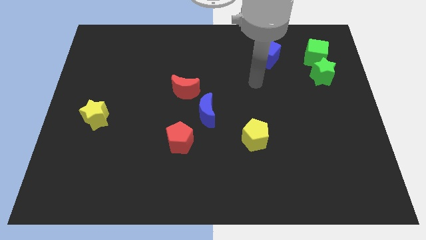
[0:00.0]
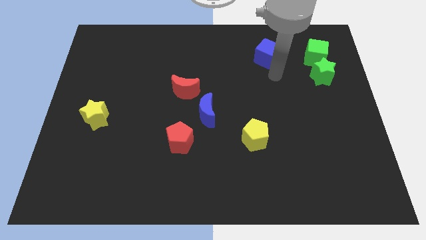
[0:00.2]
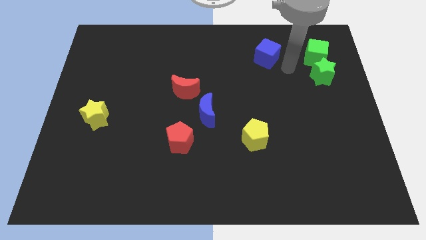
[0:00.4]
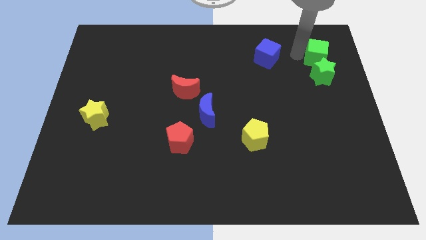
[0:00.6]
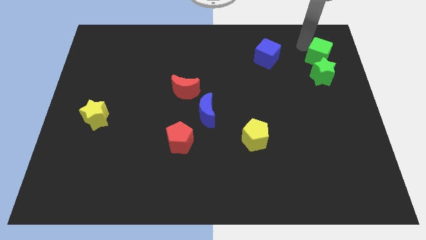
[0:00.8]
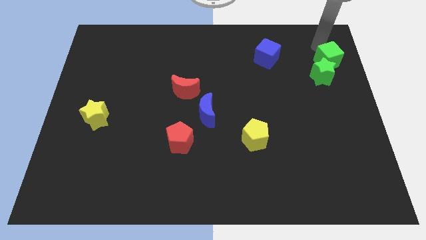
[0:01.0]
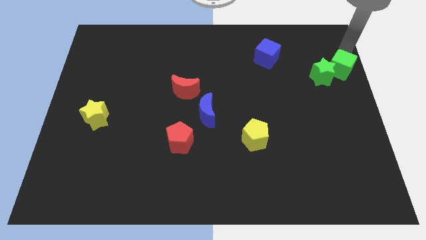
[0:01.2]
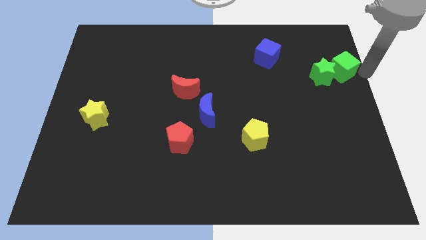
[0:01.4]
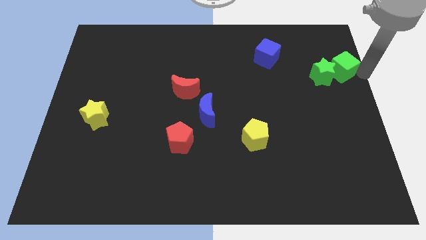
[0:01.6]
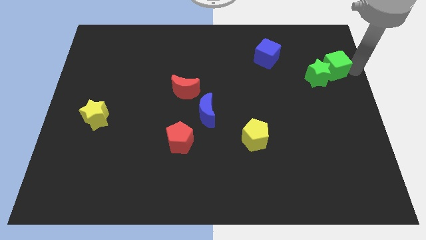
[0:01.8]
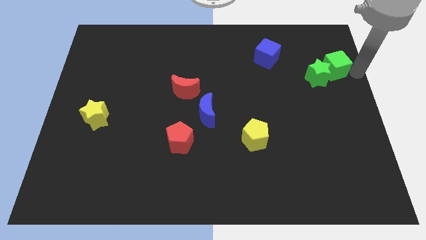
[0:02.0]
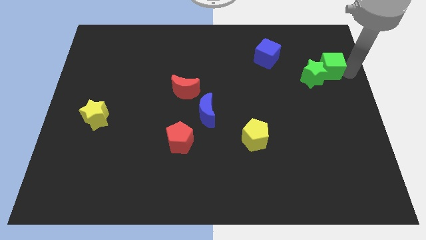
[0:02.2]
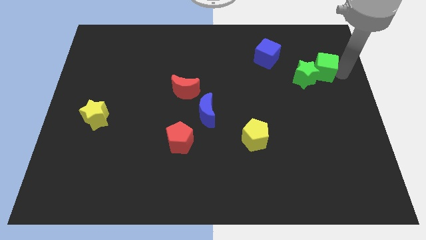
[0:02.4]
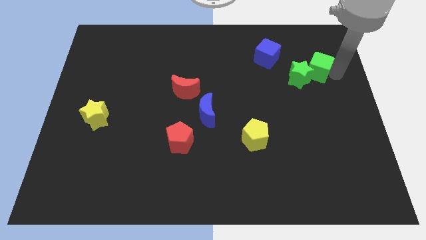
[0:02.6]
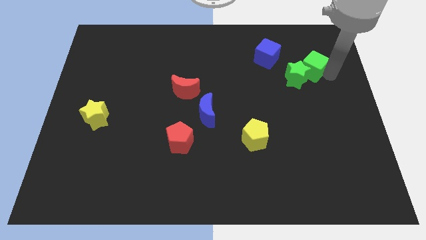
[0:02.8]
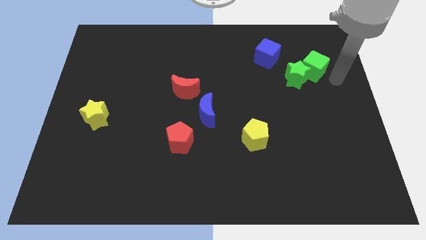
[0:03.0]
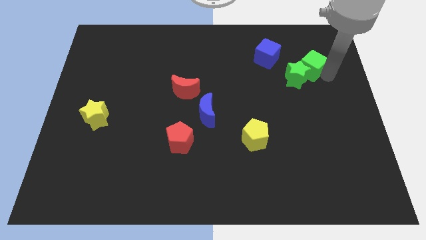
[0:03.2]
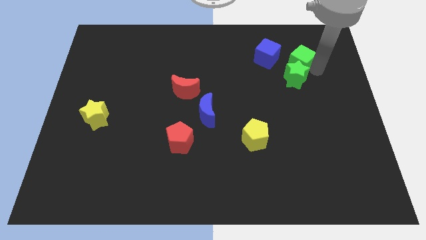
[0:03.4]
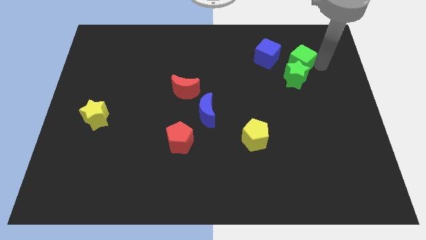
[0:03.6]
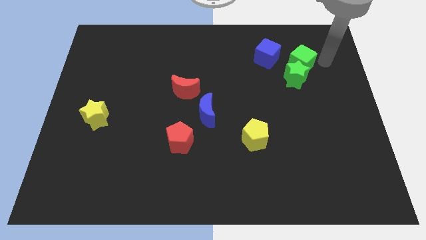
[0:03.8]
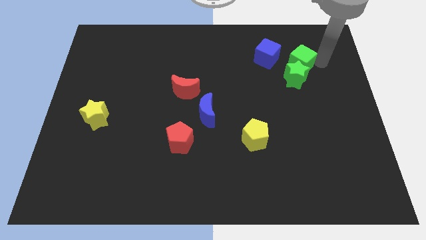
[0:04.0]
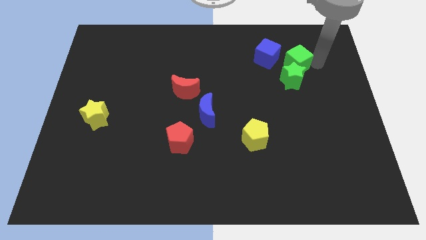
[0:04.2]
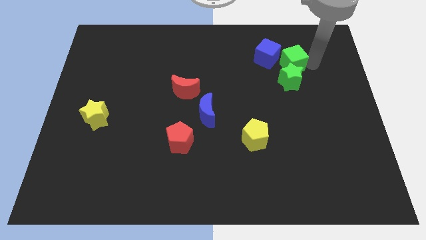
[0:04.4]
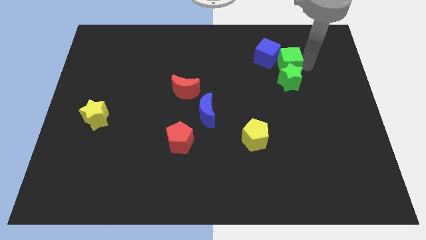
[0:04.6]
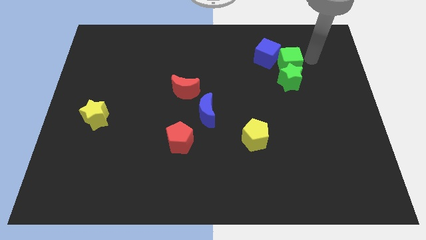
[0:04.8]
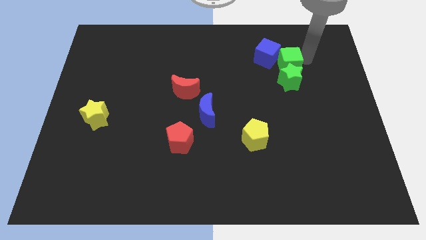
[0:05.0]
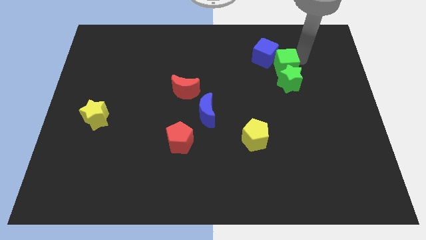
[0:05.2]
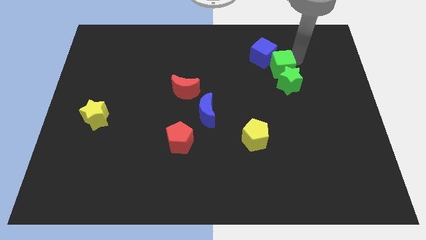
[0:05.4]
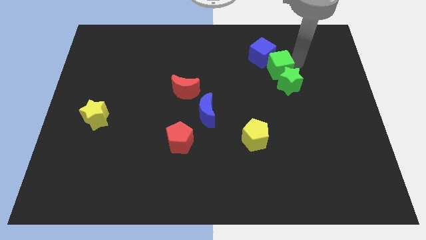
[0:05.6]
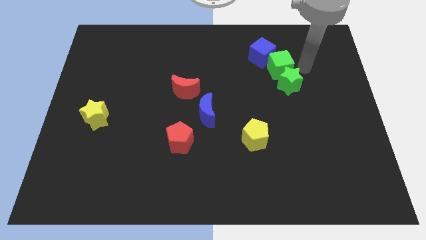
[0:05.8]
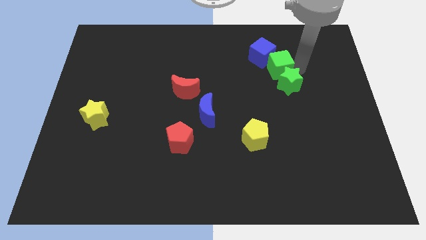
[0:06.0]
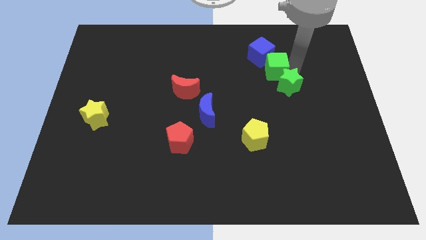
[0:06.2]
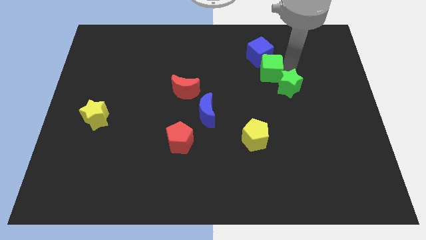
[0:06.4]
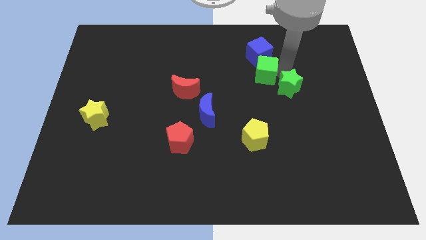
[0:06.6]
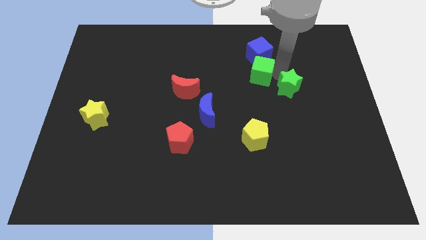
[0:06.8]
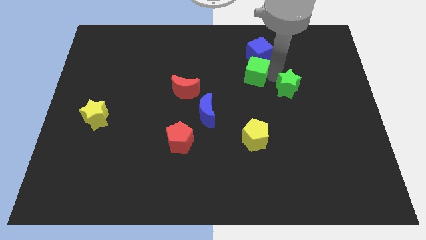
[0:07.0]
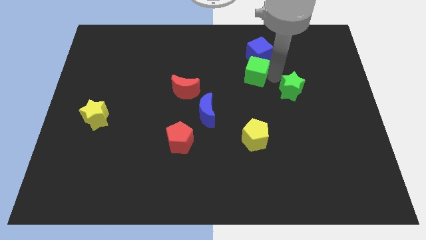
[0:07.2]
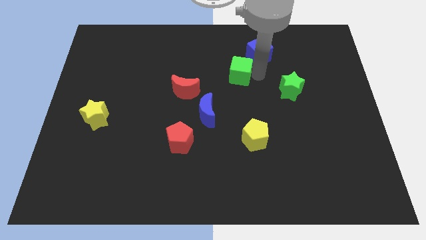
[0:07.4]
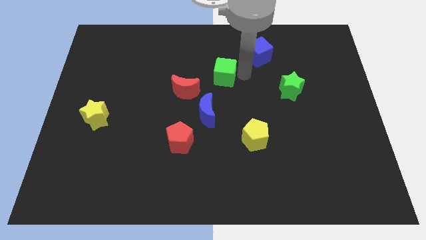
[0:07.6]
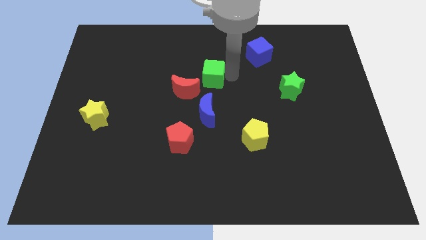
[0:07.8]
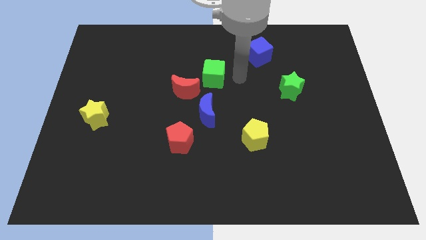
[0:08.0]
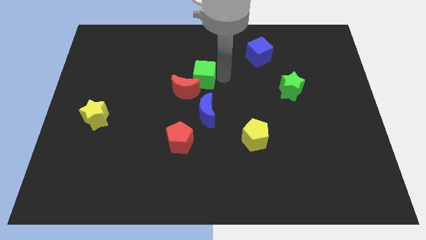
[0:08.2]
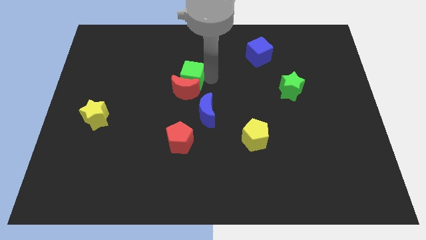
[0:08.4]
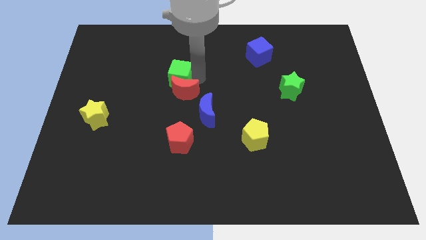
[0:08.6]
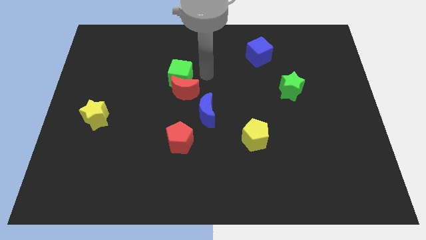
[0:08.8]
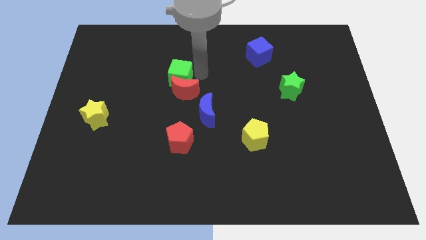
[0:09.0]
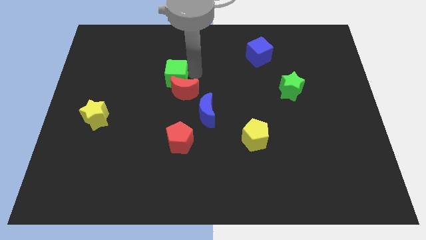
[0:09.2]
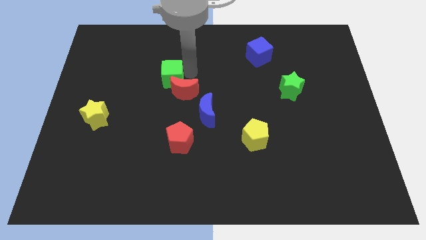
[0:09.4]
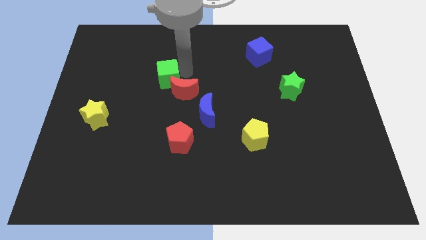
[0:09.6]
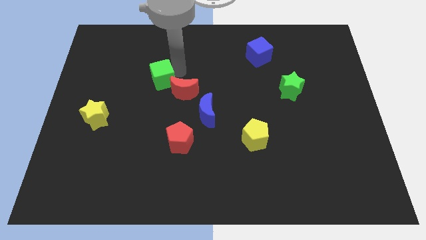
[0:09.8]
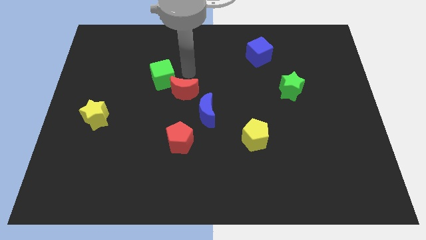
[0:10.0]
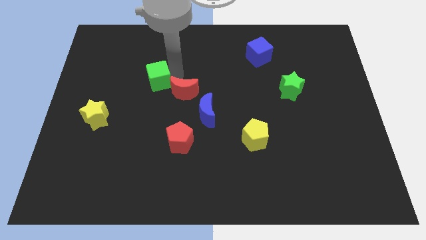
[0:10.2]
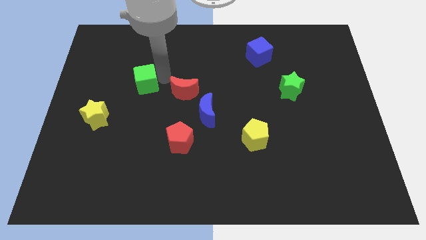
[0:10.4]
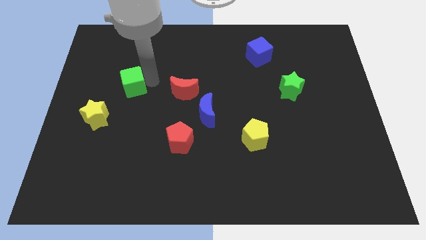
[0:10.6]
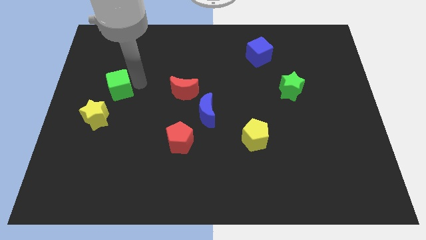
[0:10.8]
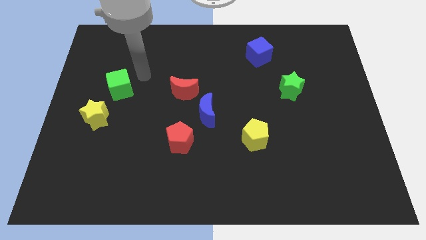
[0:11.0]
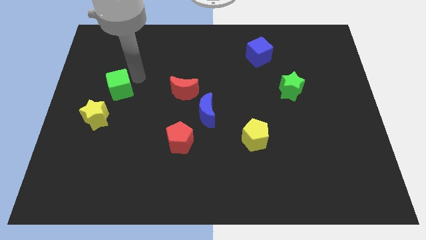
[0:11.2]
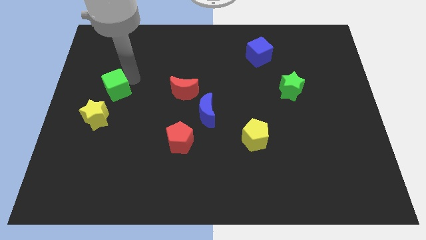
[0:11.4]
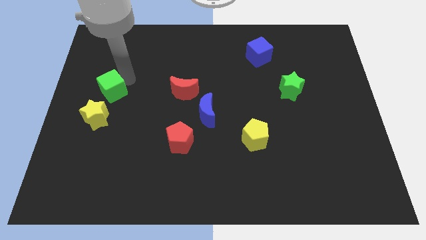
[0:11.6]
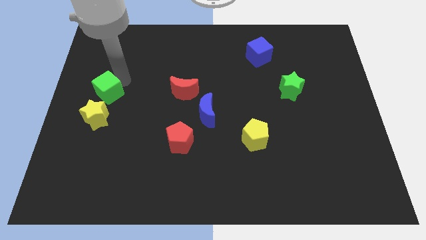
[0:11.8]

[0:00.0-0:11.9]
put the green cube to the left side

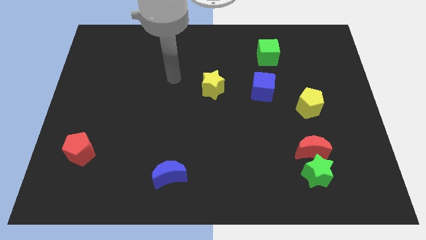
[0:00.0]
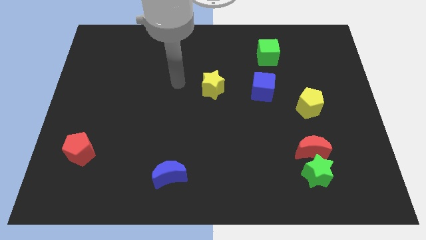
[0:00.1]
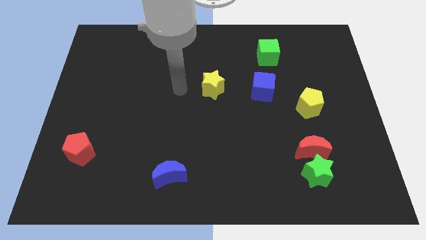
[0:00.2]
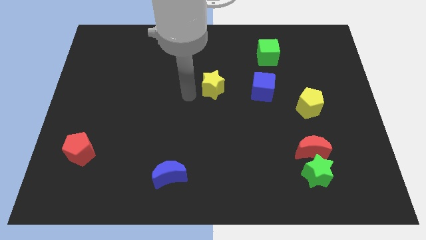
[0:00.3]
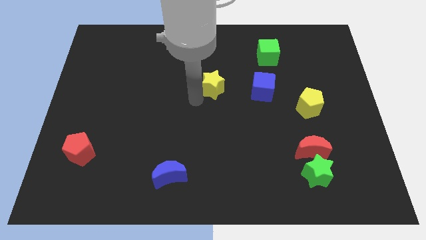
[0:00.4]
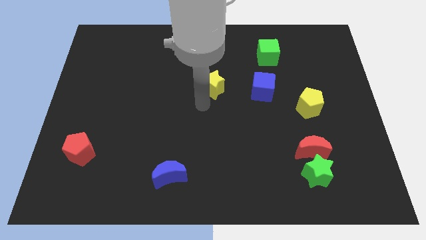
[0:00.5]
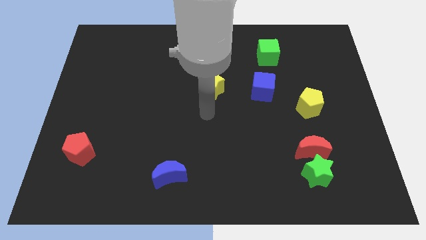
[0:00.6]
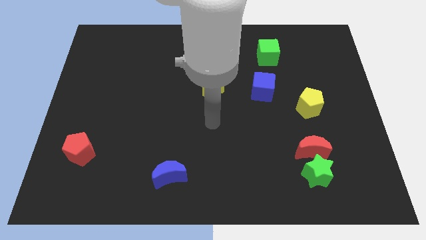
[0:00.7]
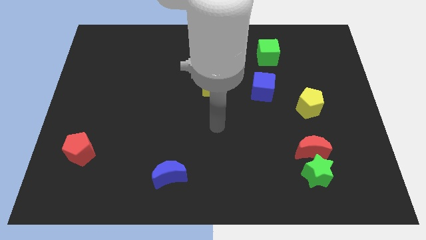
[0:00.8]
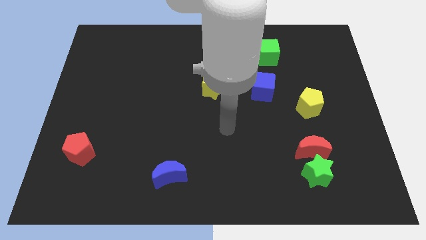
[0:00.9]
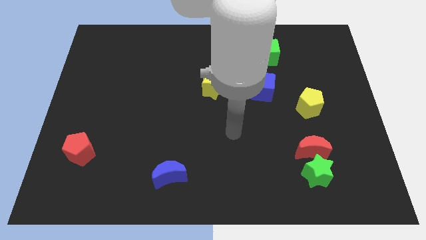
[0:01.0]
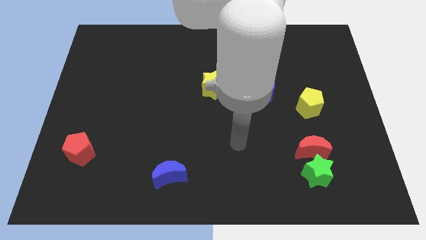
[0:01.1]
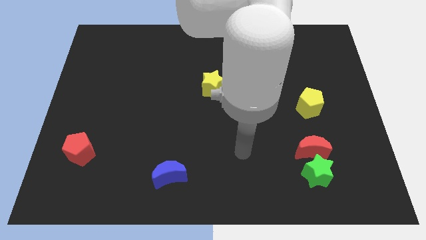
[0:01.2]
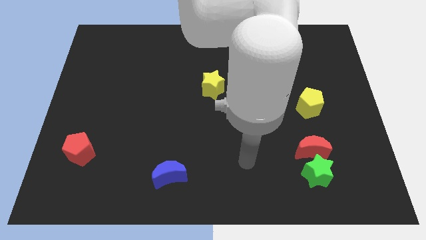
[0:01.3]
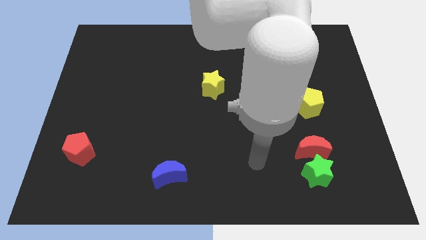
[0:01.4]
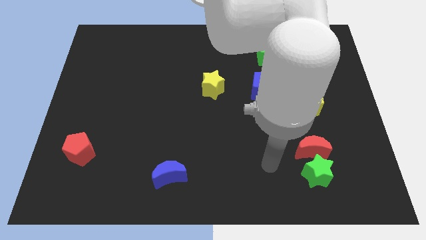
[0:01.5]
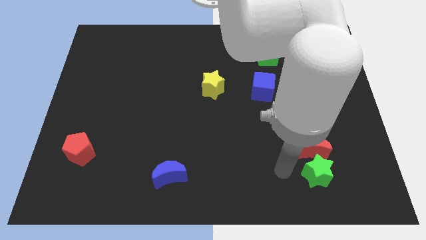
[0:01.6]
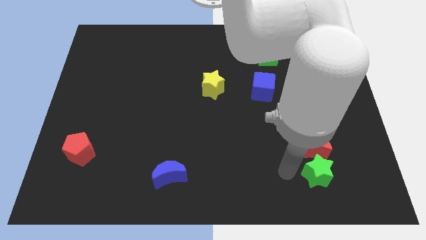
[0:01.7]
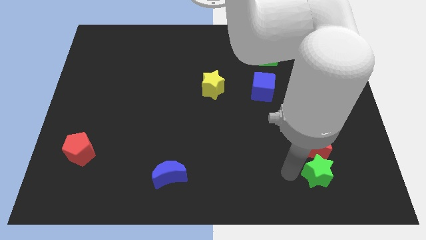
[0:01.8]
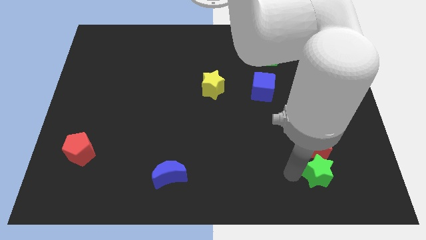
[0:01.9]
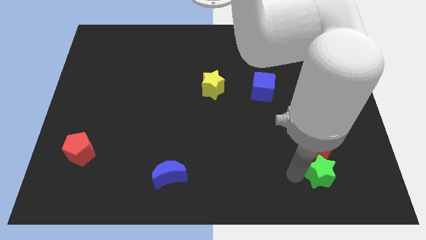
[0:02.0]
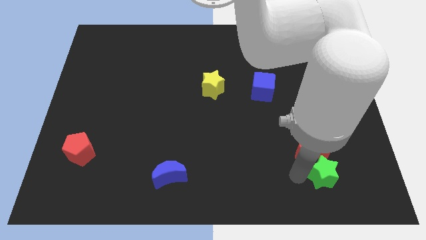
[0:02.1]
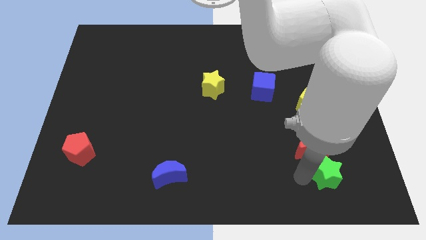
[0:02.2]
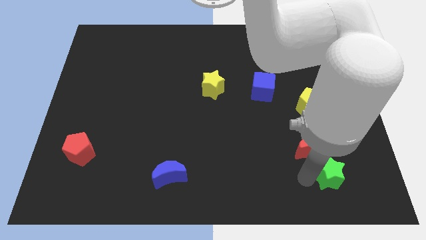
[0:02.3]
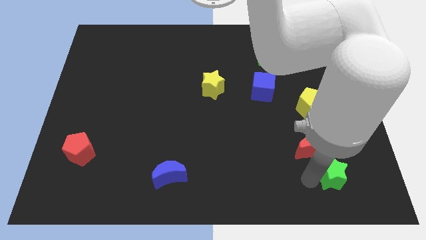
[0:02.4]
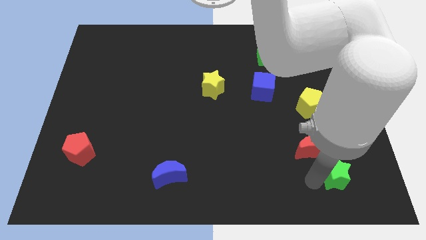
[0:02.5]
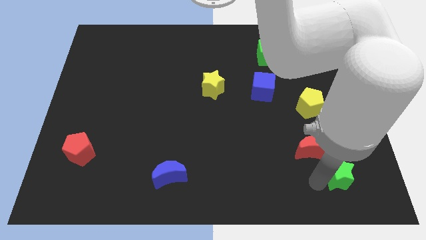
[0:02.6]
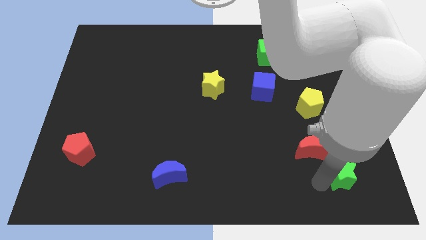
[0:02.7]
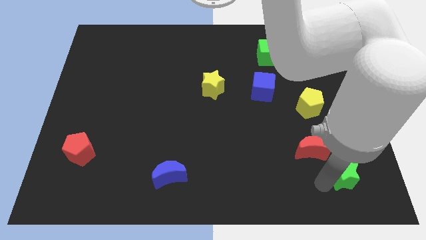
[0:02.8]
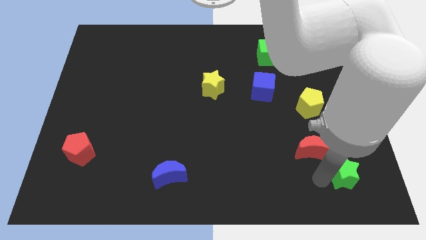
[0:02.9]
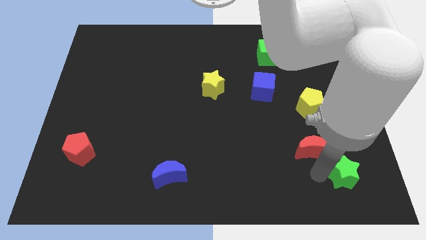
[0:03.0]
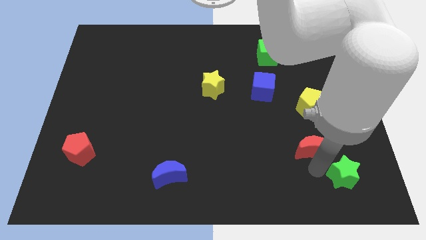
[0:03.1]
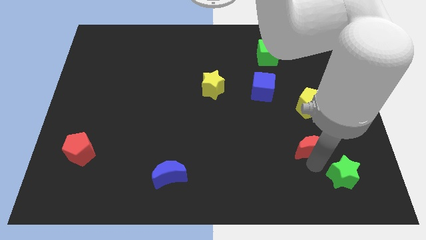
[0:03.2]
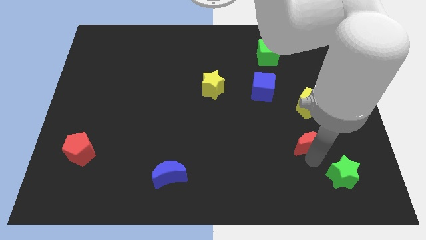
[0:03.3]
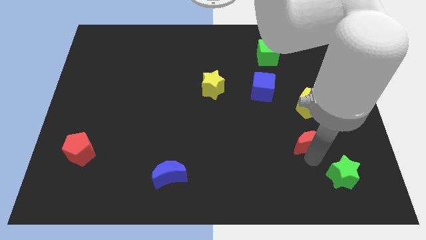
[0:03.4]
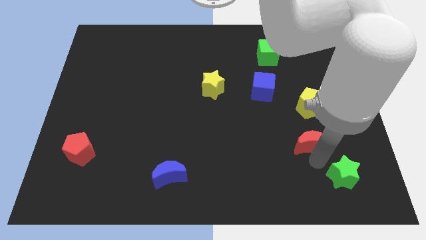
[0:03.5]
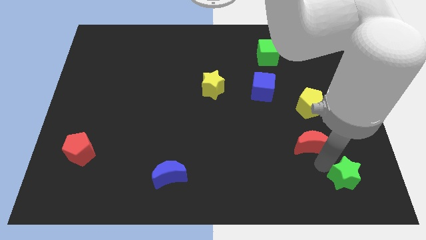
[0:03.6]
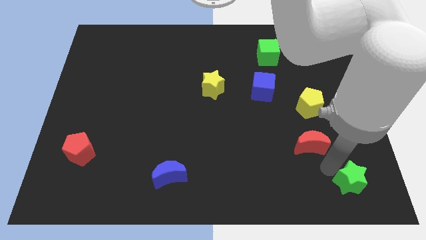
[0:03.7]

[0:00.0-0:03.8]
move the green star to the bottom right
